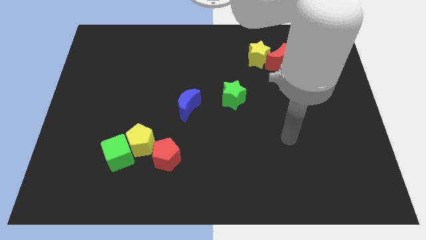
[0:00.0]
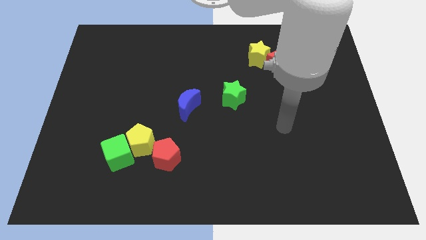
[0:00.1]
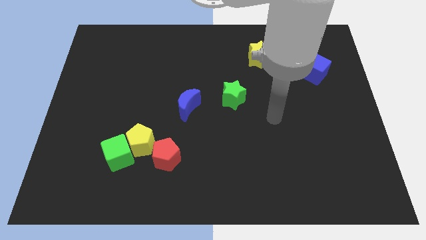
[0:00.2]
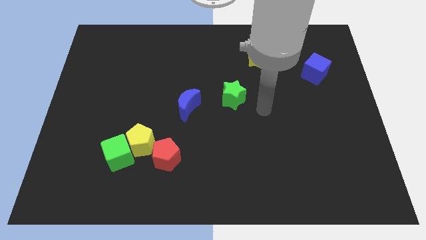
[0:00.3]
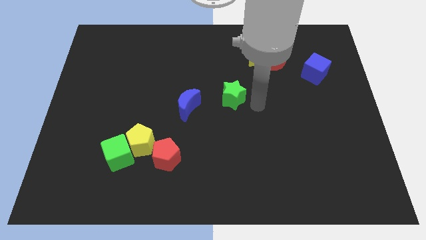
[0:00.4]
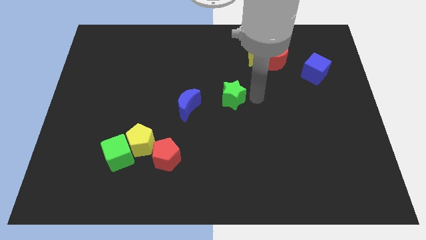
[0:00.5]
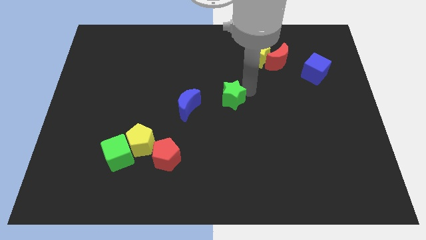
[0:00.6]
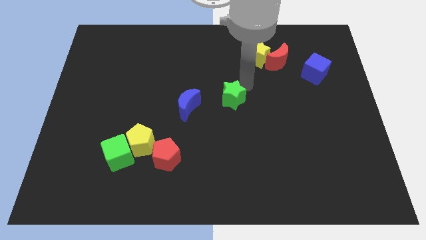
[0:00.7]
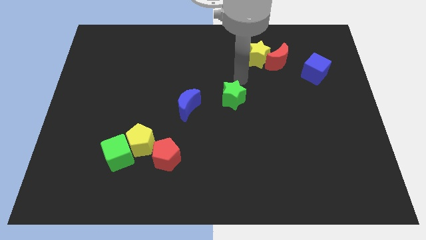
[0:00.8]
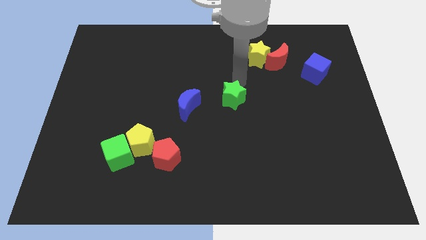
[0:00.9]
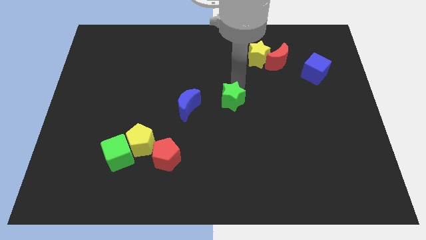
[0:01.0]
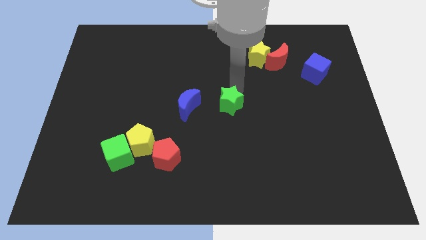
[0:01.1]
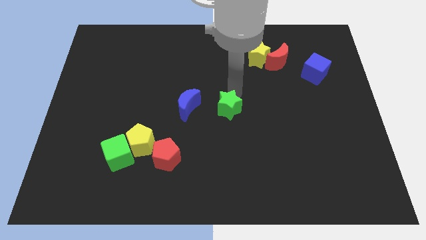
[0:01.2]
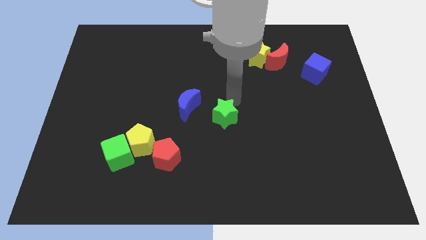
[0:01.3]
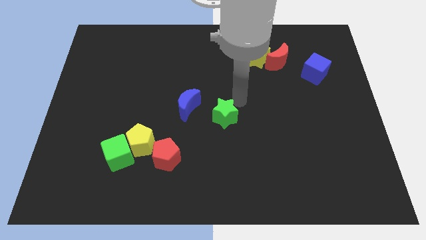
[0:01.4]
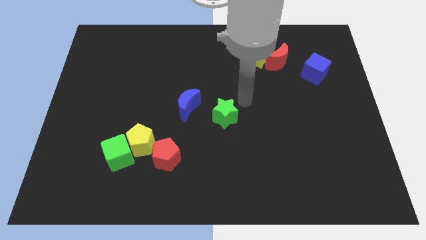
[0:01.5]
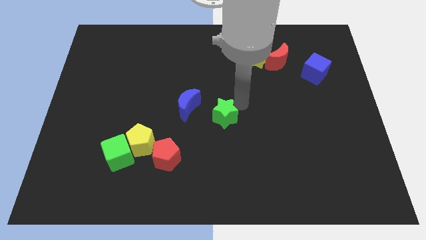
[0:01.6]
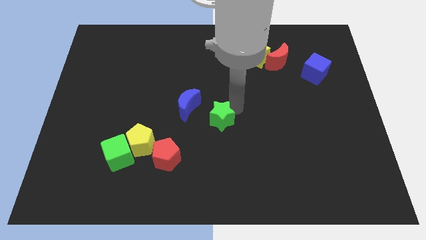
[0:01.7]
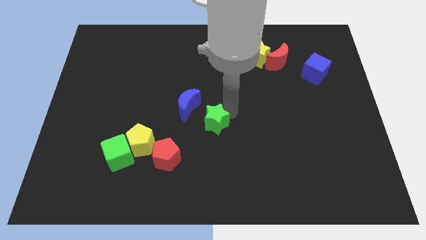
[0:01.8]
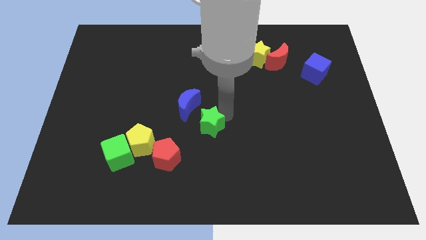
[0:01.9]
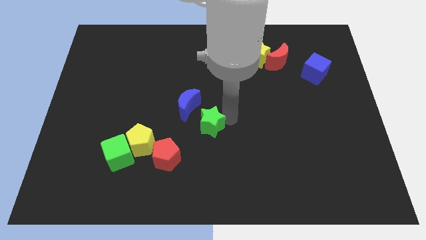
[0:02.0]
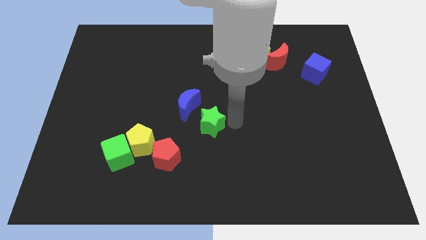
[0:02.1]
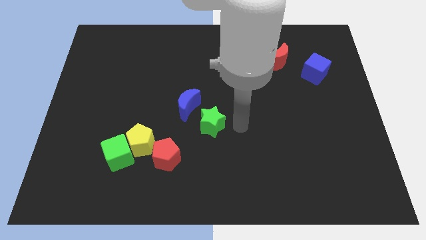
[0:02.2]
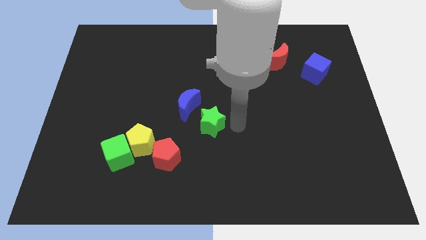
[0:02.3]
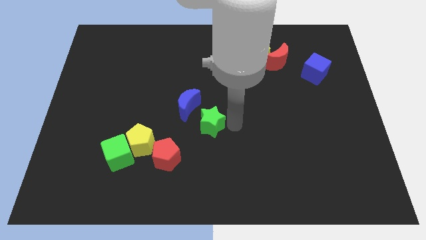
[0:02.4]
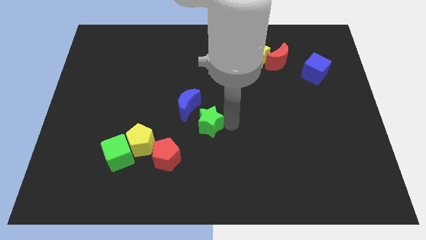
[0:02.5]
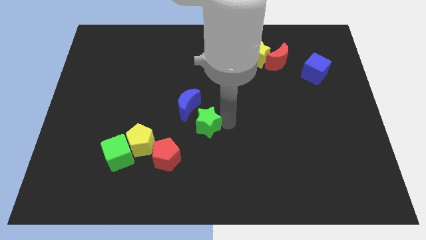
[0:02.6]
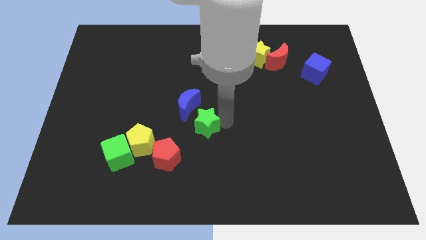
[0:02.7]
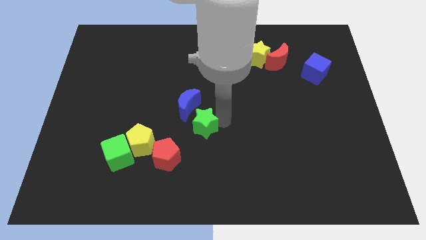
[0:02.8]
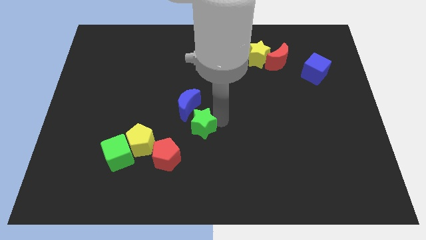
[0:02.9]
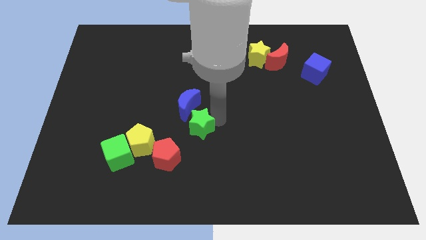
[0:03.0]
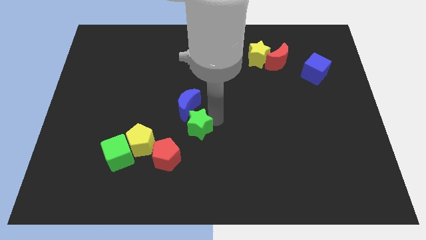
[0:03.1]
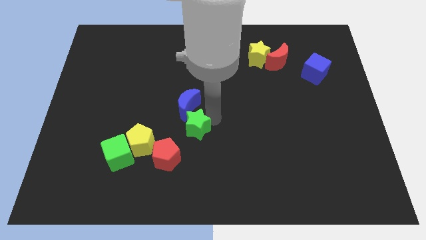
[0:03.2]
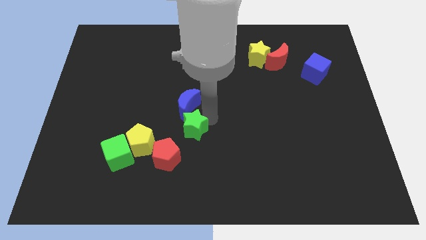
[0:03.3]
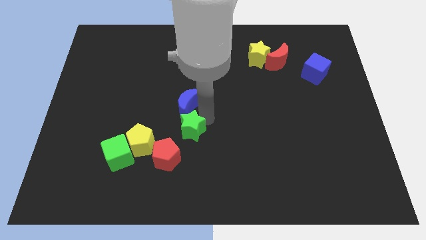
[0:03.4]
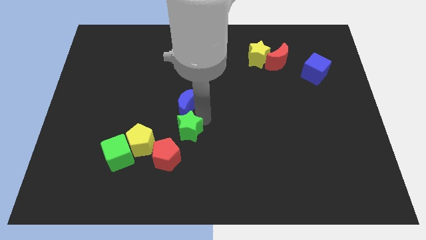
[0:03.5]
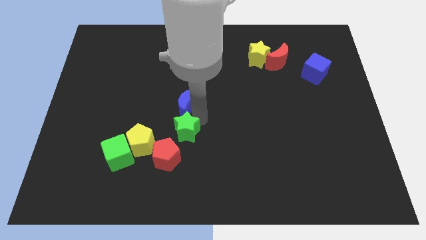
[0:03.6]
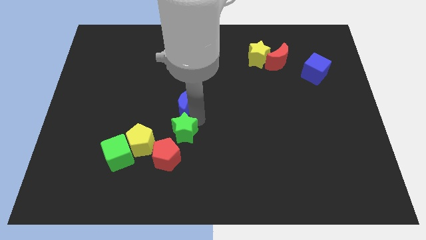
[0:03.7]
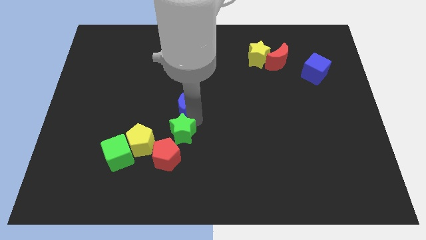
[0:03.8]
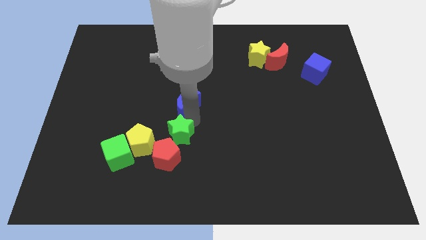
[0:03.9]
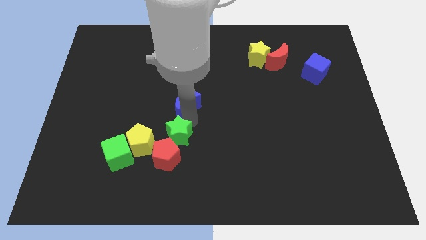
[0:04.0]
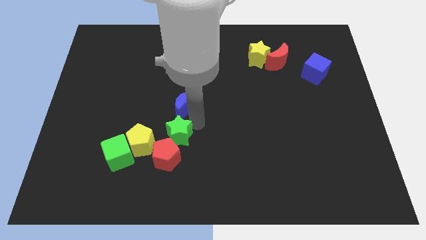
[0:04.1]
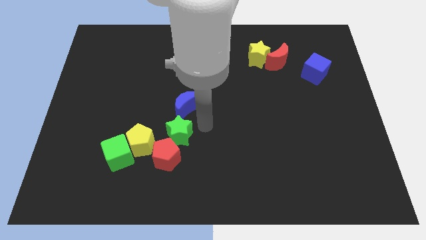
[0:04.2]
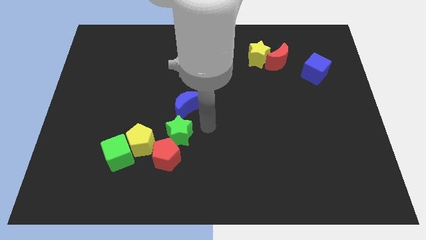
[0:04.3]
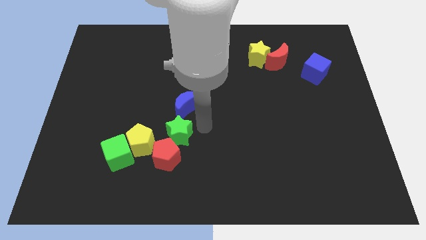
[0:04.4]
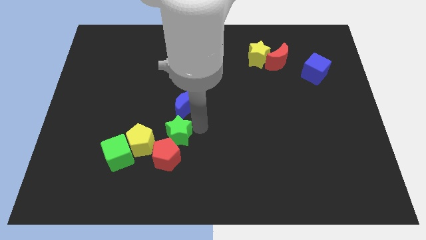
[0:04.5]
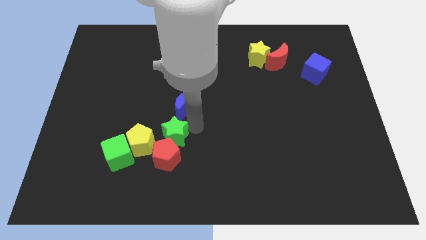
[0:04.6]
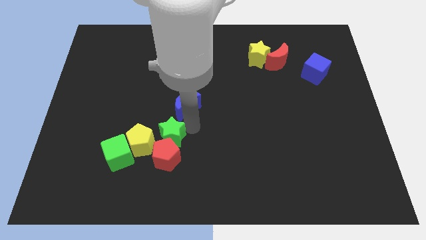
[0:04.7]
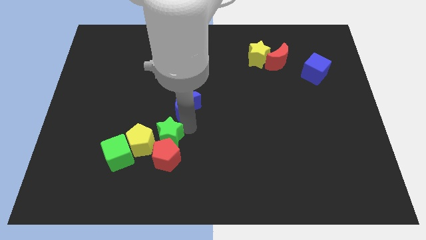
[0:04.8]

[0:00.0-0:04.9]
put the green star towards the yellow pentagon

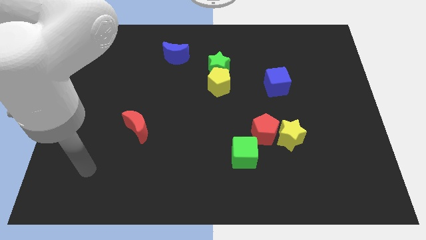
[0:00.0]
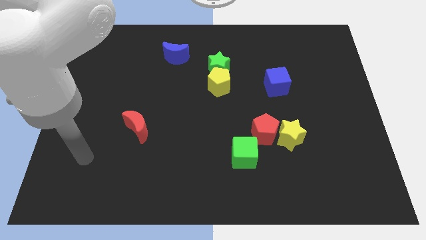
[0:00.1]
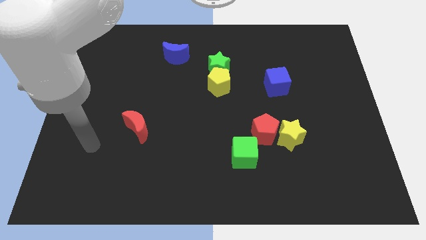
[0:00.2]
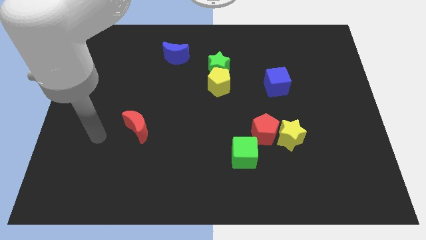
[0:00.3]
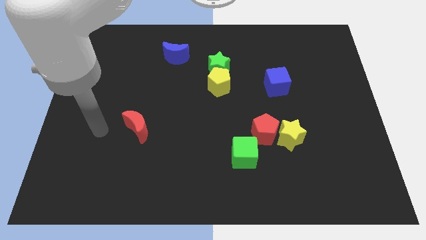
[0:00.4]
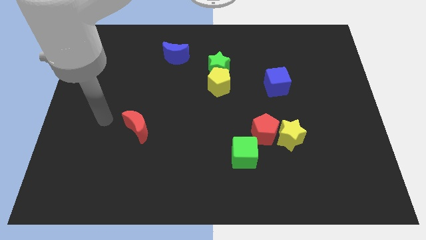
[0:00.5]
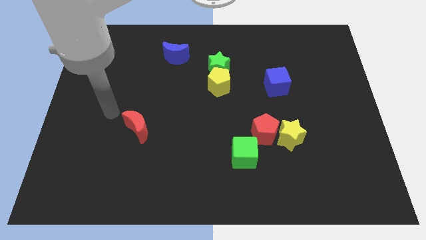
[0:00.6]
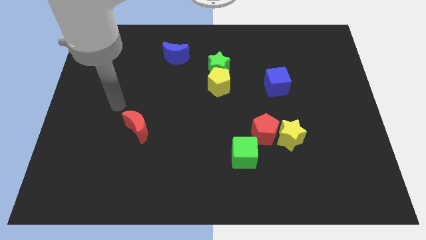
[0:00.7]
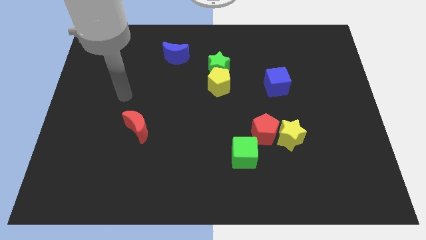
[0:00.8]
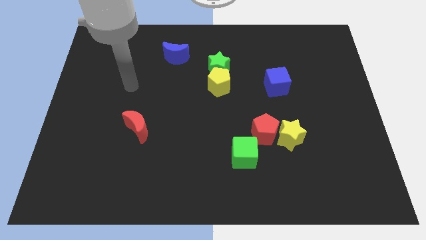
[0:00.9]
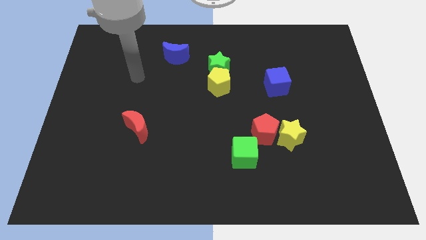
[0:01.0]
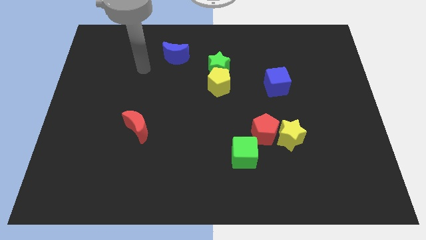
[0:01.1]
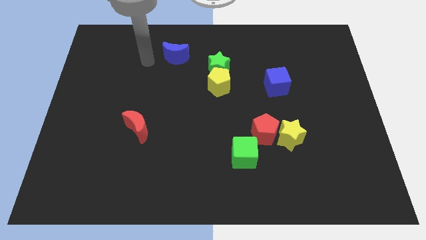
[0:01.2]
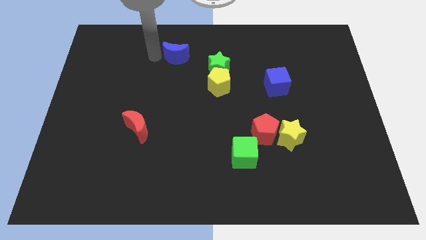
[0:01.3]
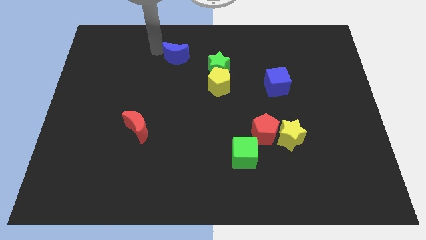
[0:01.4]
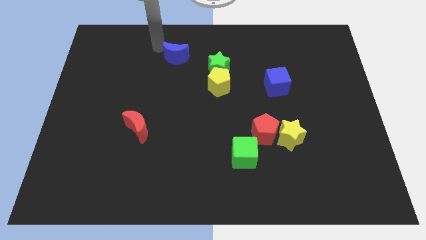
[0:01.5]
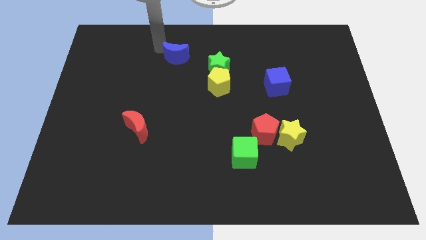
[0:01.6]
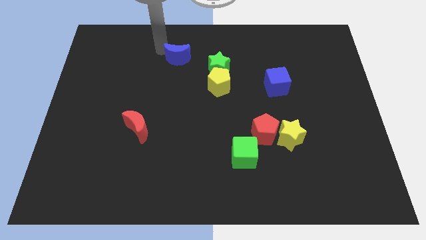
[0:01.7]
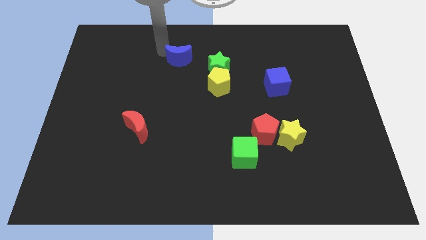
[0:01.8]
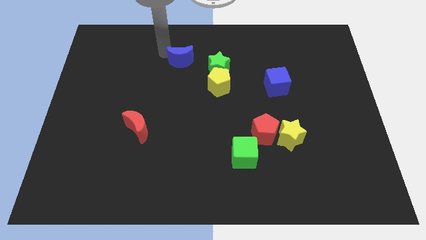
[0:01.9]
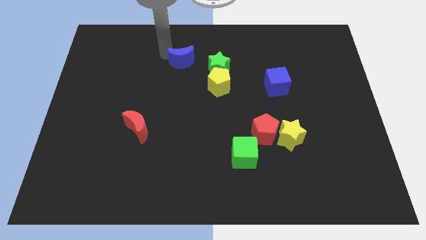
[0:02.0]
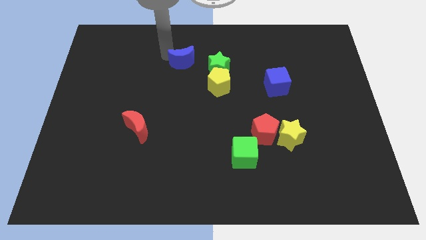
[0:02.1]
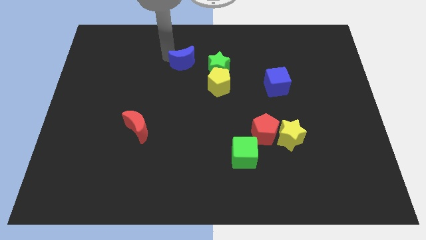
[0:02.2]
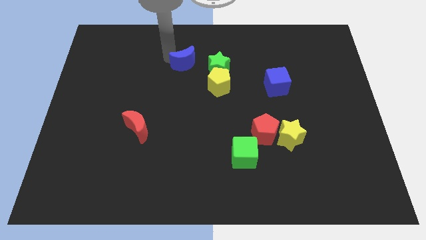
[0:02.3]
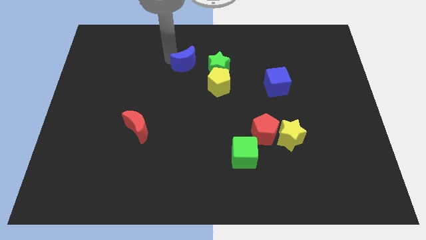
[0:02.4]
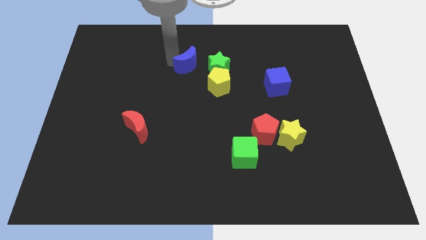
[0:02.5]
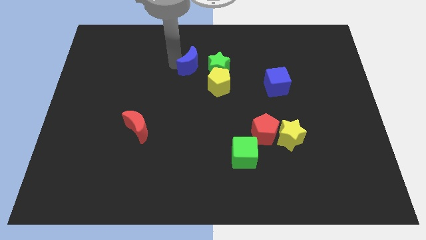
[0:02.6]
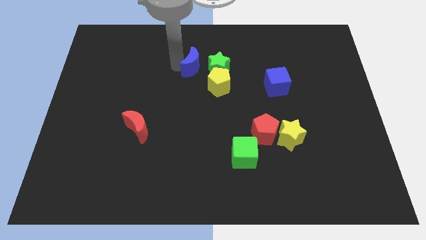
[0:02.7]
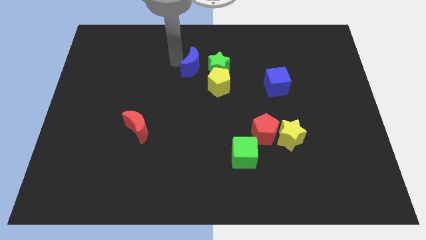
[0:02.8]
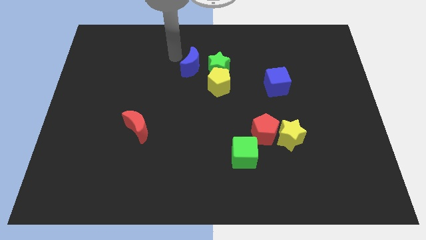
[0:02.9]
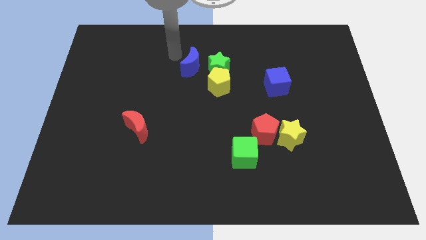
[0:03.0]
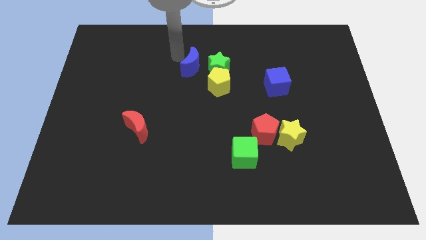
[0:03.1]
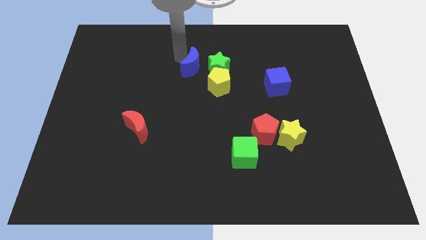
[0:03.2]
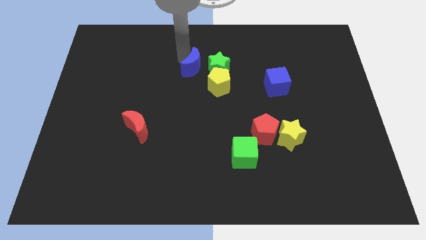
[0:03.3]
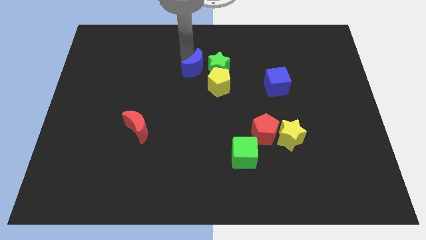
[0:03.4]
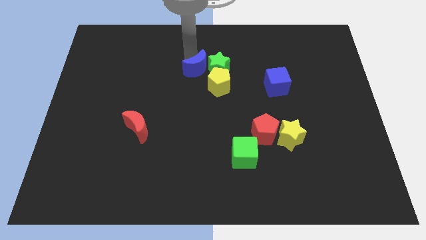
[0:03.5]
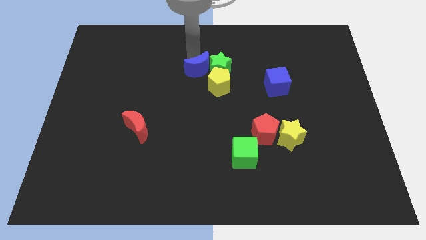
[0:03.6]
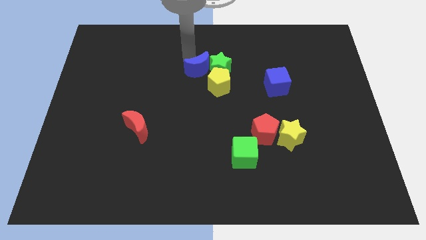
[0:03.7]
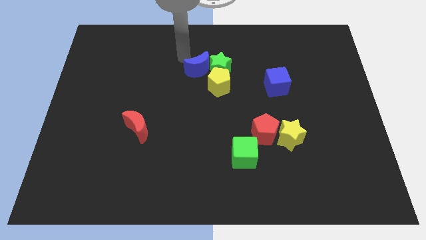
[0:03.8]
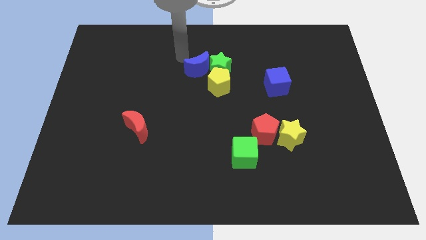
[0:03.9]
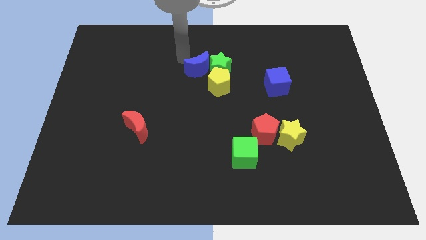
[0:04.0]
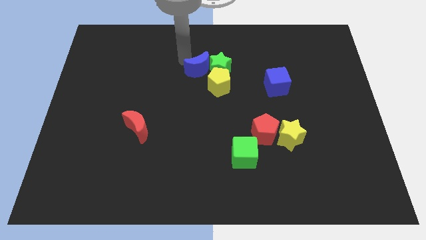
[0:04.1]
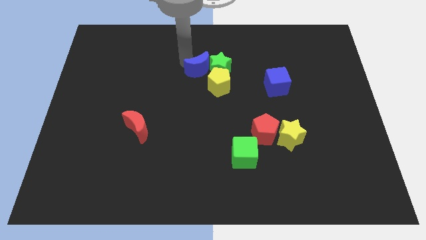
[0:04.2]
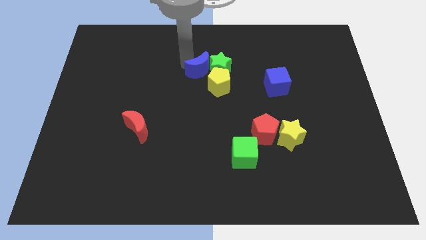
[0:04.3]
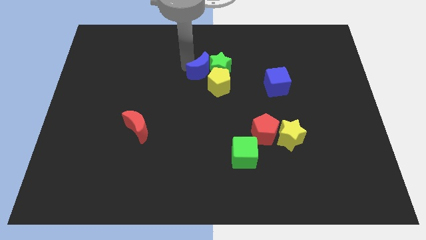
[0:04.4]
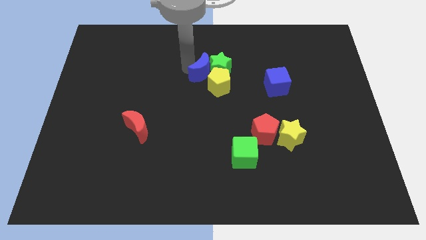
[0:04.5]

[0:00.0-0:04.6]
push the blue moon towards the yellow pentagon
